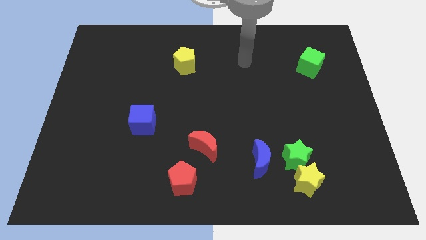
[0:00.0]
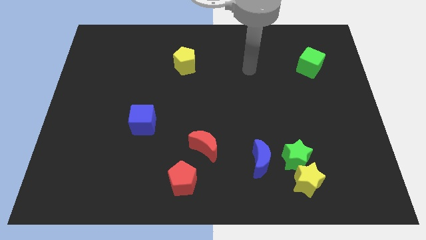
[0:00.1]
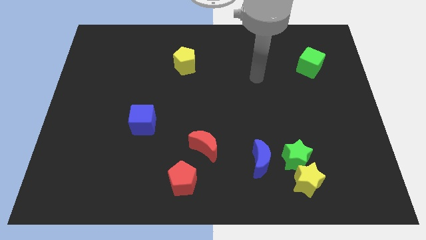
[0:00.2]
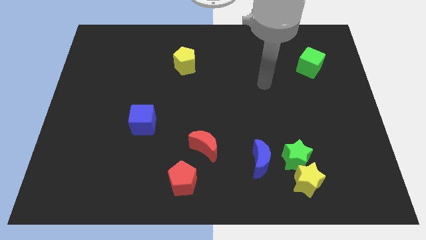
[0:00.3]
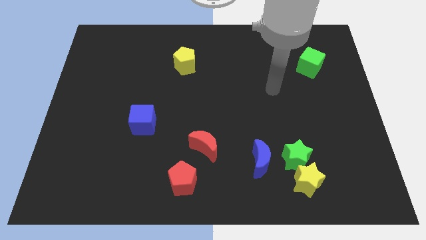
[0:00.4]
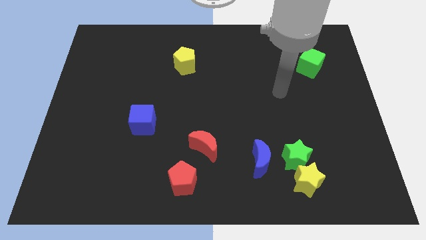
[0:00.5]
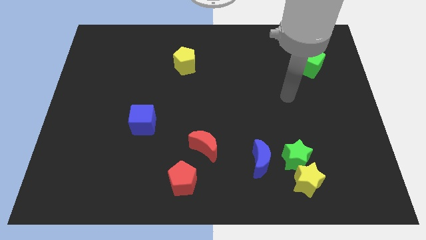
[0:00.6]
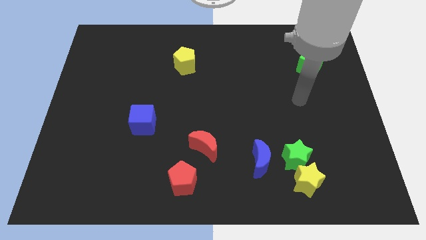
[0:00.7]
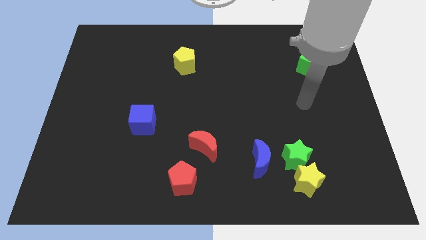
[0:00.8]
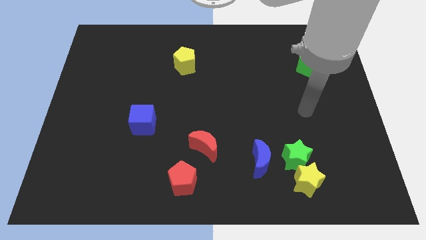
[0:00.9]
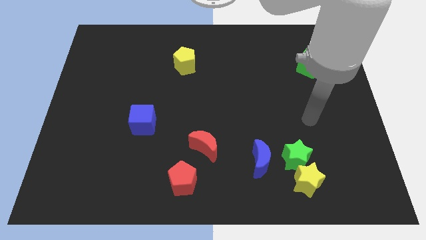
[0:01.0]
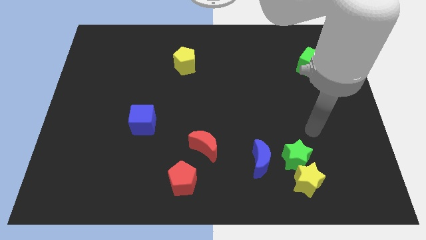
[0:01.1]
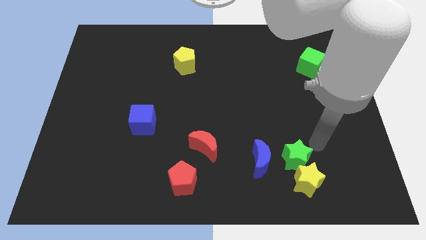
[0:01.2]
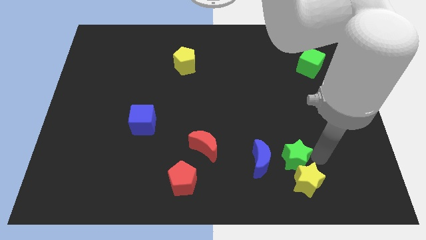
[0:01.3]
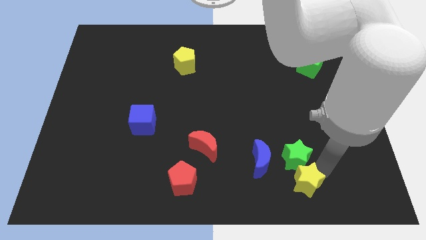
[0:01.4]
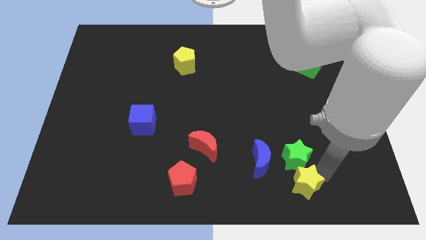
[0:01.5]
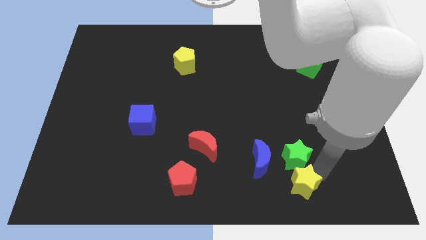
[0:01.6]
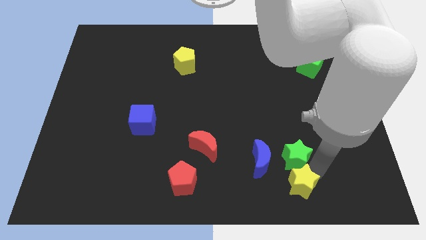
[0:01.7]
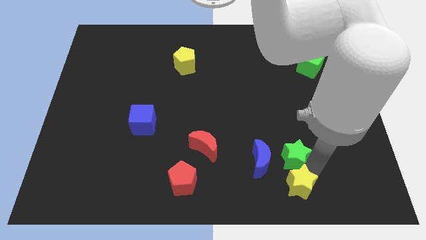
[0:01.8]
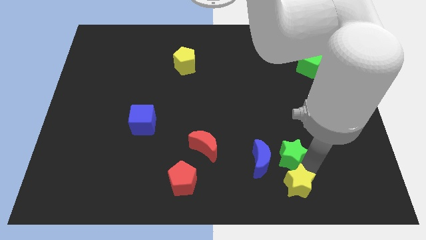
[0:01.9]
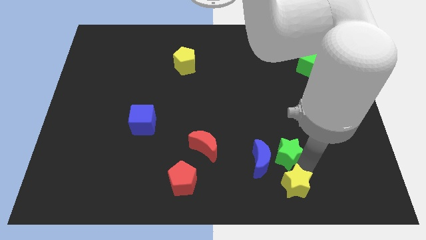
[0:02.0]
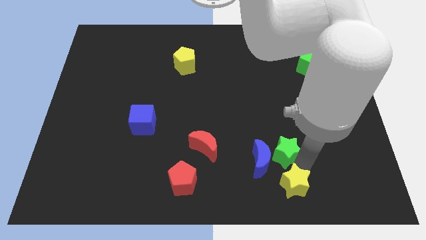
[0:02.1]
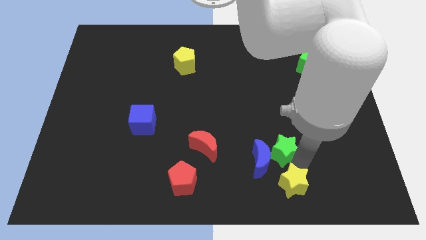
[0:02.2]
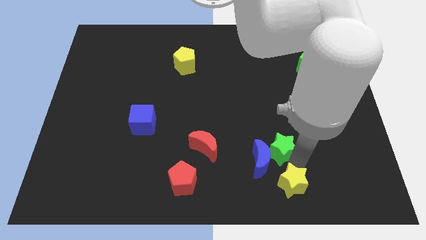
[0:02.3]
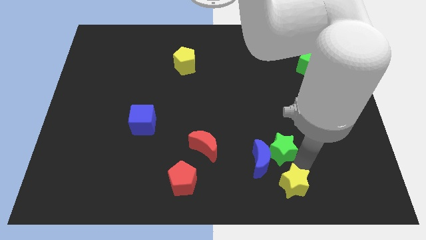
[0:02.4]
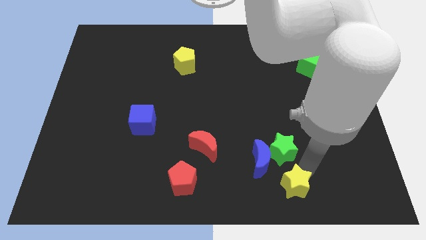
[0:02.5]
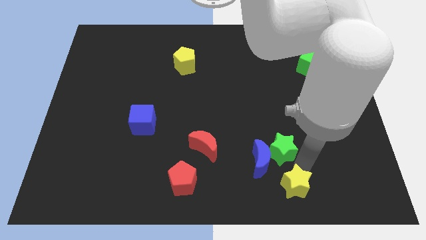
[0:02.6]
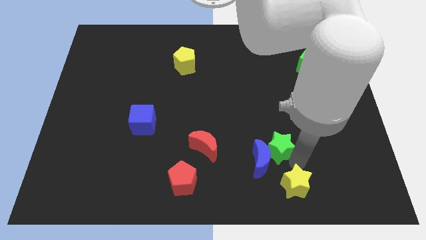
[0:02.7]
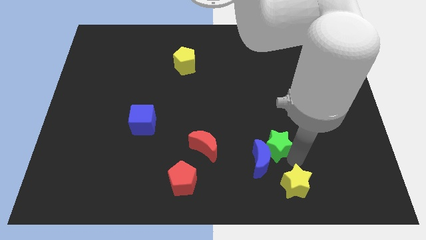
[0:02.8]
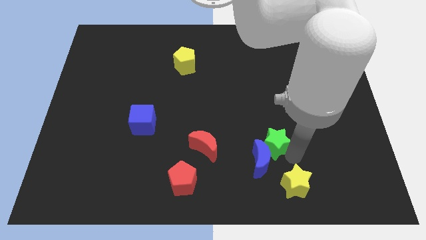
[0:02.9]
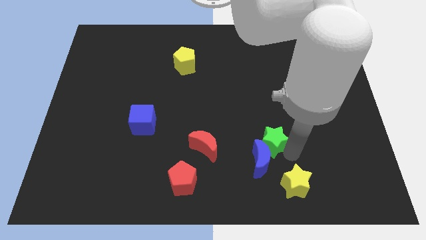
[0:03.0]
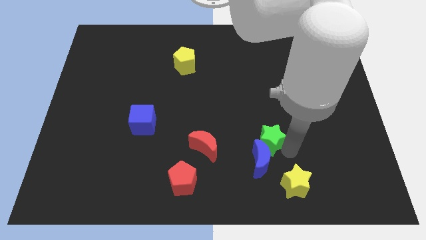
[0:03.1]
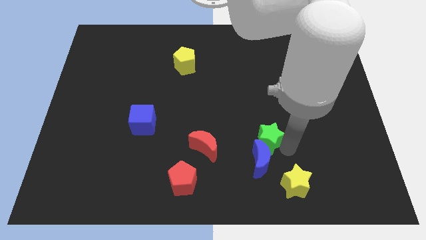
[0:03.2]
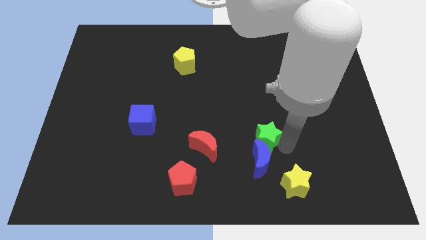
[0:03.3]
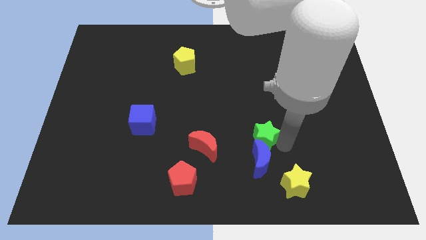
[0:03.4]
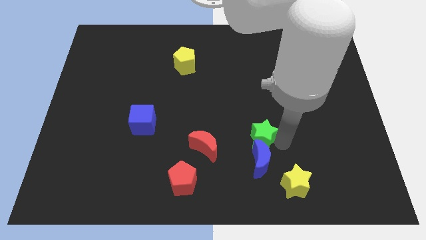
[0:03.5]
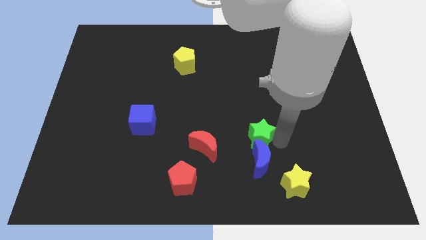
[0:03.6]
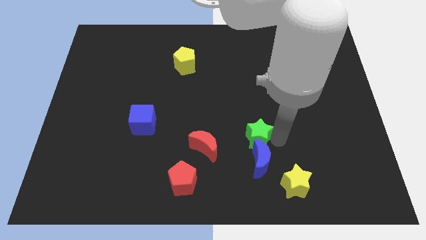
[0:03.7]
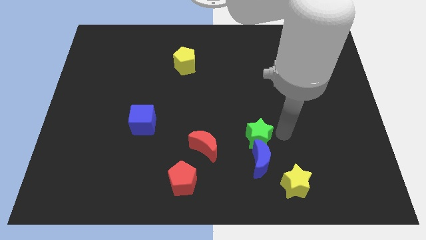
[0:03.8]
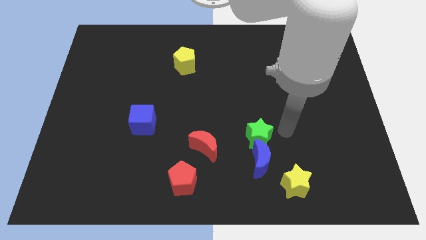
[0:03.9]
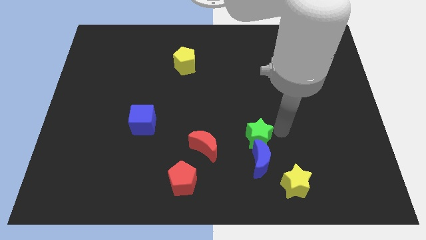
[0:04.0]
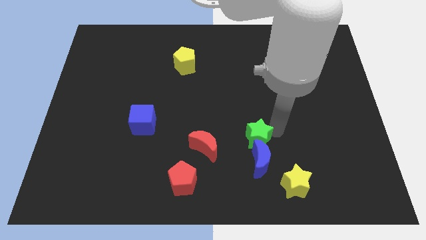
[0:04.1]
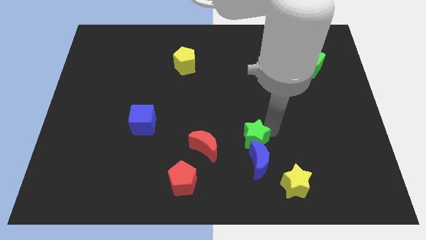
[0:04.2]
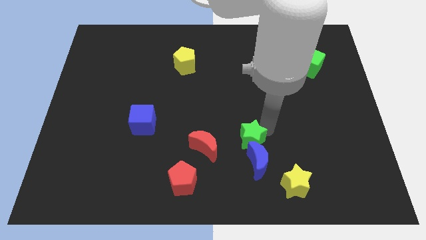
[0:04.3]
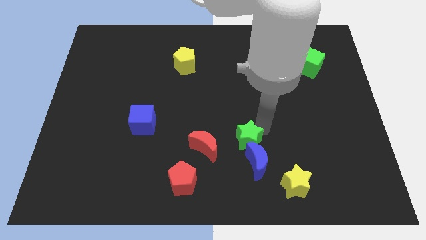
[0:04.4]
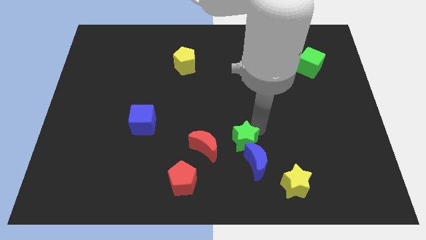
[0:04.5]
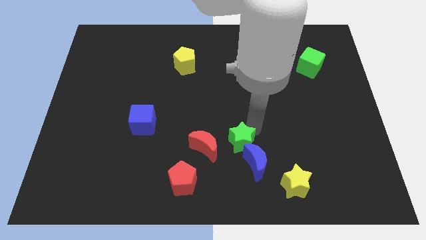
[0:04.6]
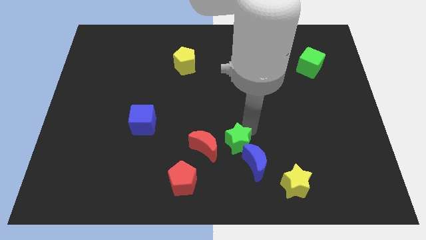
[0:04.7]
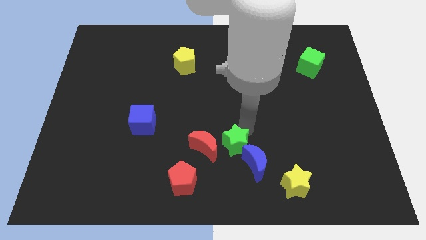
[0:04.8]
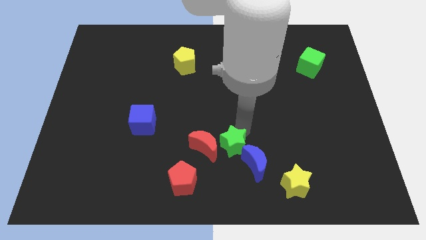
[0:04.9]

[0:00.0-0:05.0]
push the green star next to the red moon

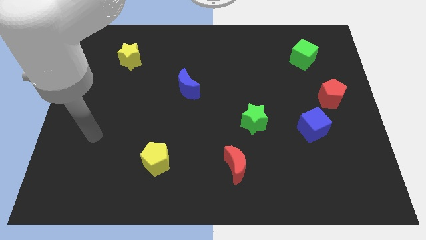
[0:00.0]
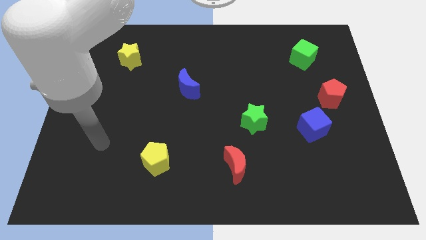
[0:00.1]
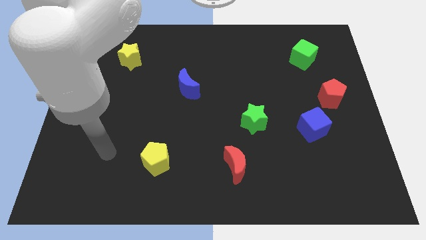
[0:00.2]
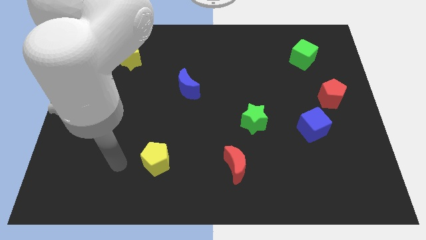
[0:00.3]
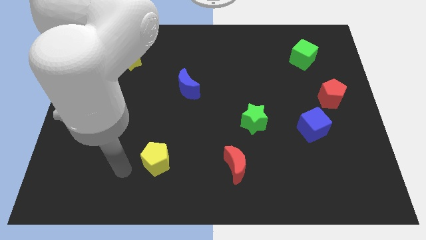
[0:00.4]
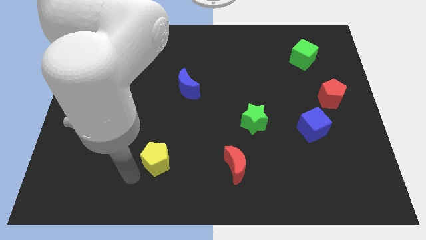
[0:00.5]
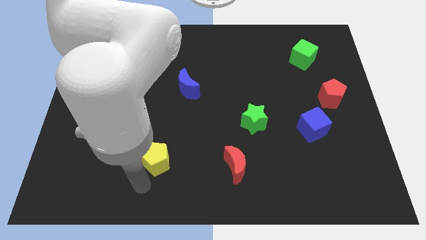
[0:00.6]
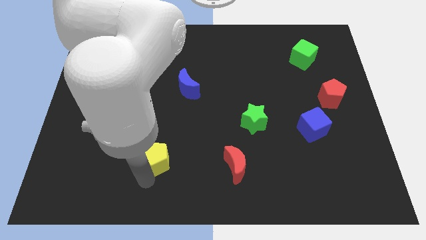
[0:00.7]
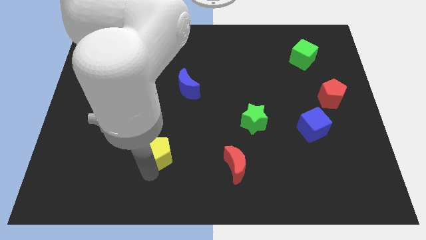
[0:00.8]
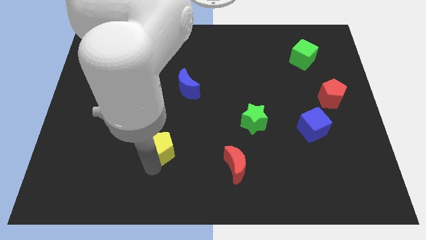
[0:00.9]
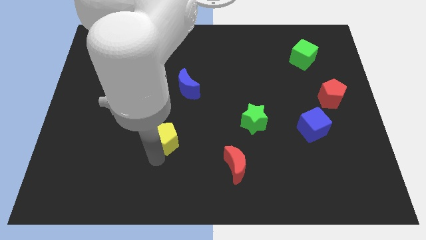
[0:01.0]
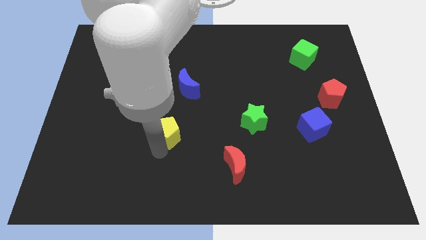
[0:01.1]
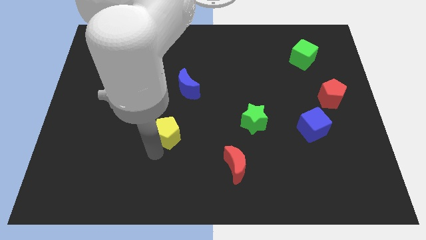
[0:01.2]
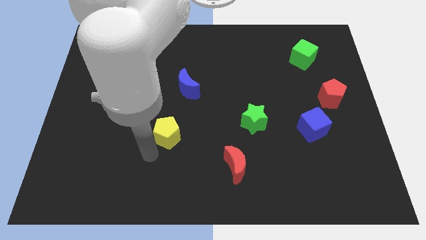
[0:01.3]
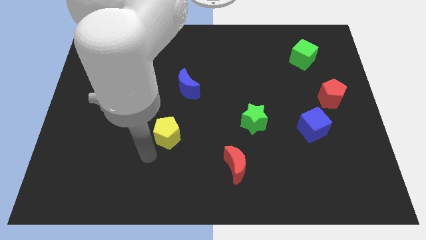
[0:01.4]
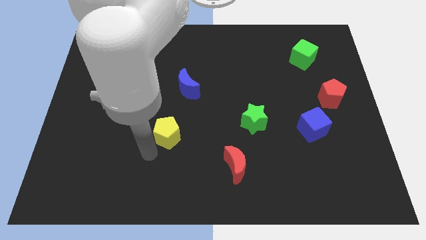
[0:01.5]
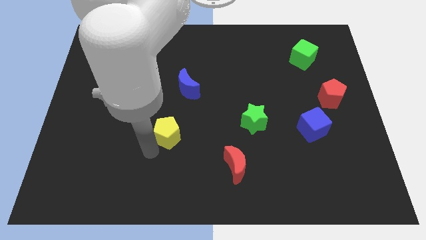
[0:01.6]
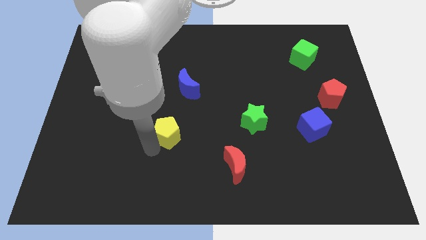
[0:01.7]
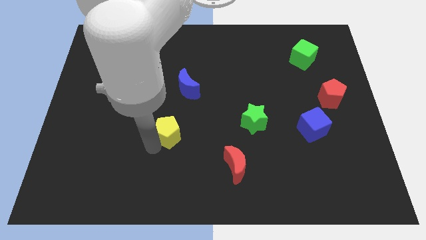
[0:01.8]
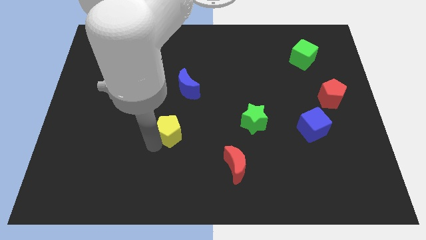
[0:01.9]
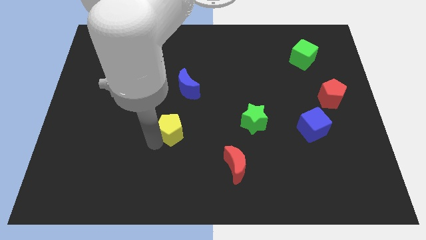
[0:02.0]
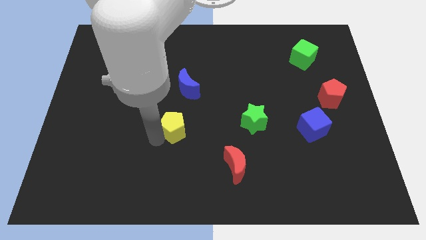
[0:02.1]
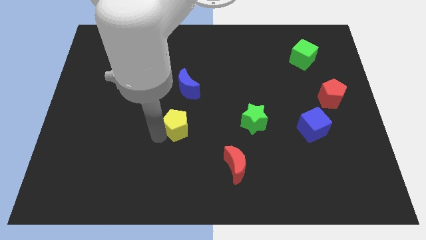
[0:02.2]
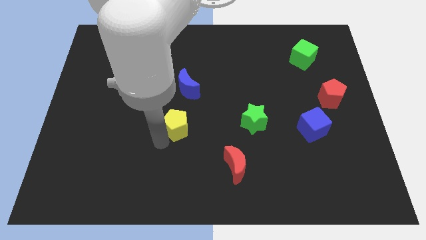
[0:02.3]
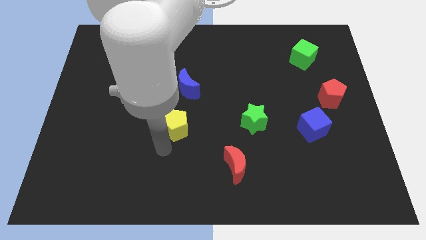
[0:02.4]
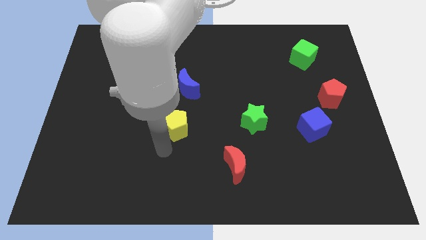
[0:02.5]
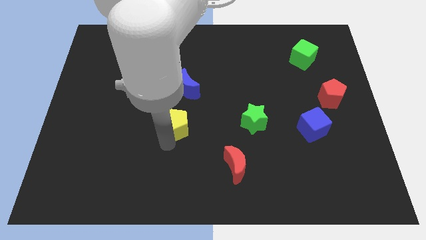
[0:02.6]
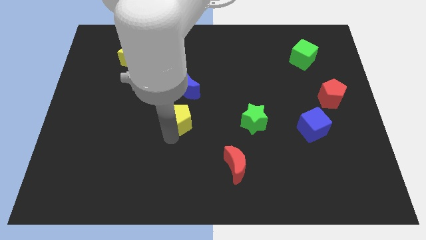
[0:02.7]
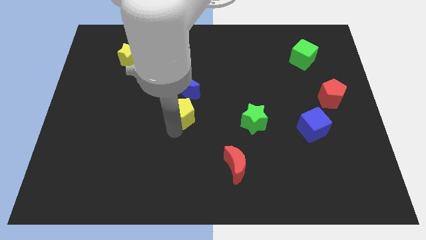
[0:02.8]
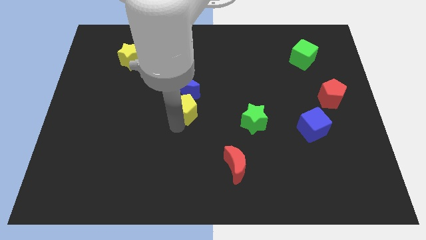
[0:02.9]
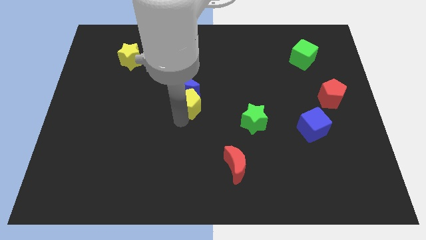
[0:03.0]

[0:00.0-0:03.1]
push the yellow pentagon towards the blue moon
